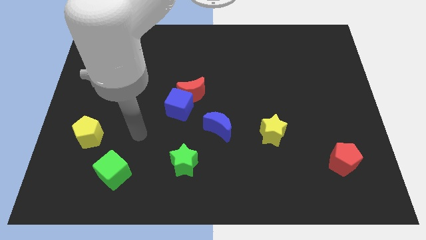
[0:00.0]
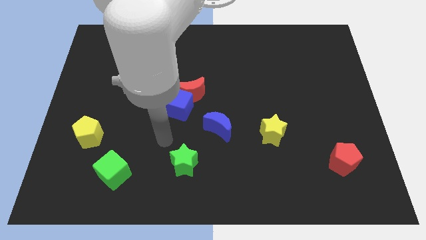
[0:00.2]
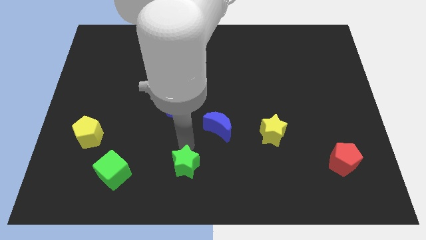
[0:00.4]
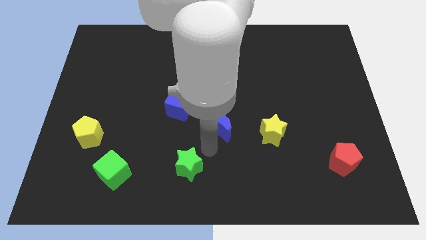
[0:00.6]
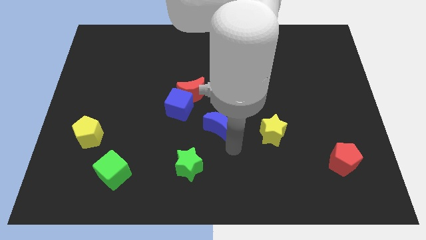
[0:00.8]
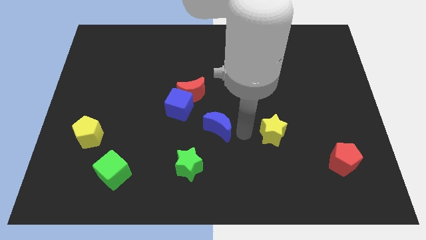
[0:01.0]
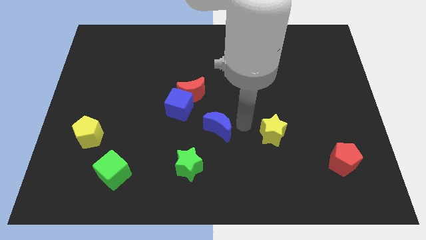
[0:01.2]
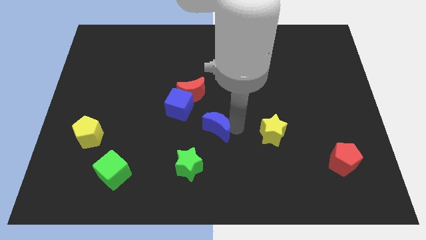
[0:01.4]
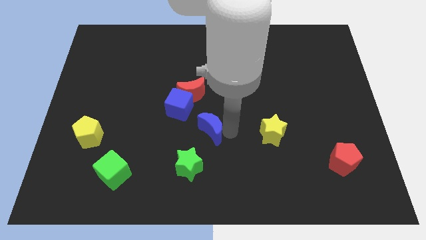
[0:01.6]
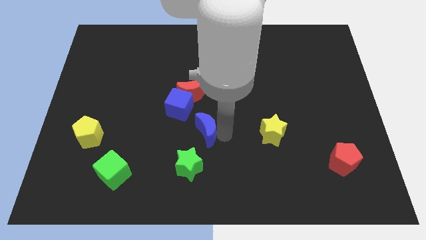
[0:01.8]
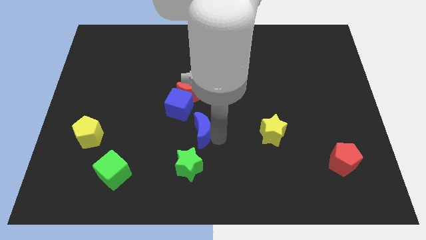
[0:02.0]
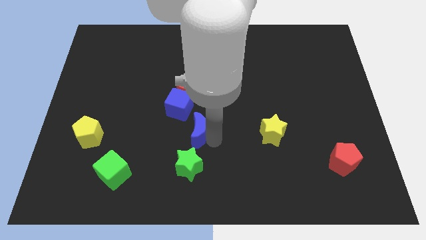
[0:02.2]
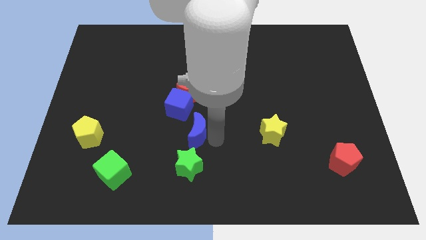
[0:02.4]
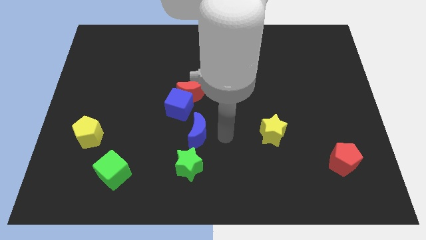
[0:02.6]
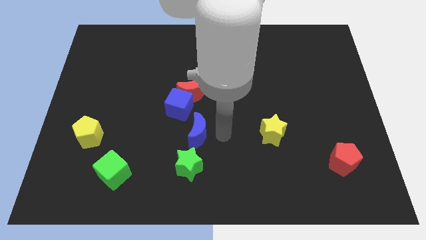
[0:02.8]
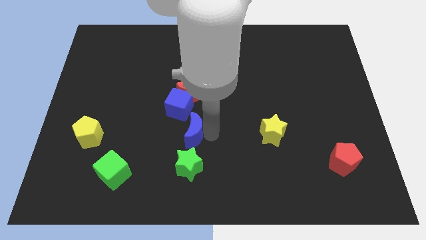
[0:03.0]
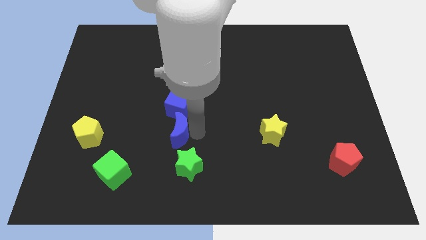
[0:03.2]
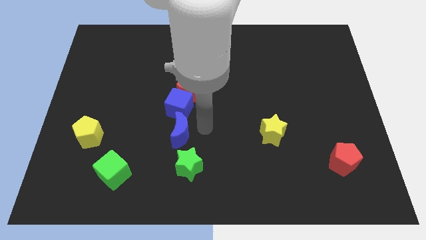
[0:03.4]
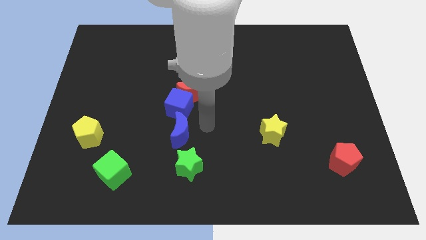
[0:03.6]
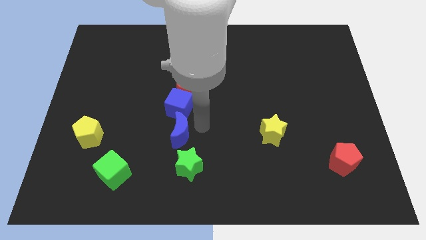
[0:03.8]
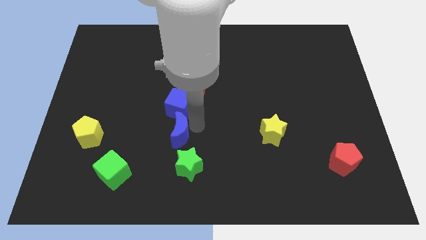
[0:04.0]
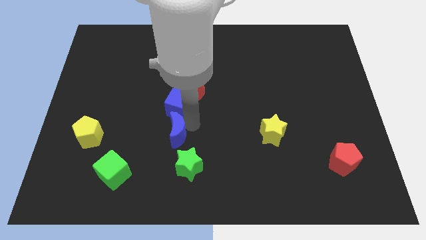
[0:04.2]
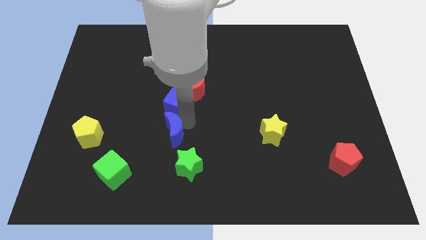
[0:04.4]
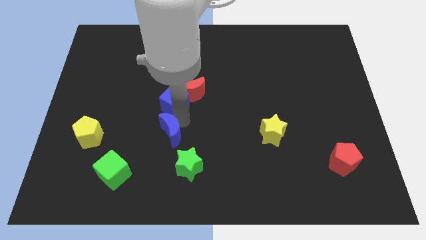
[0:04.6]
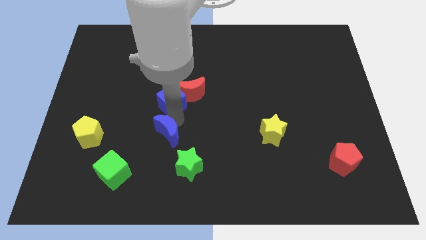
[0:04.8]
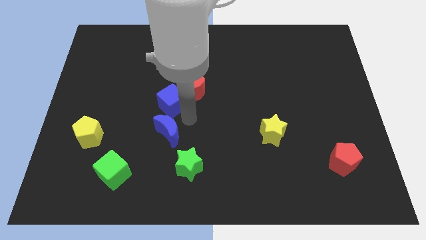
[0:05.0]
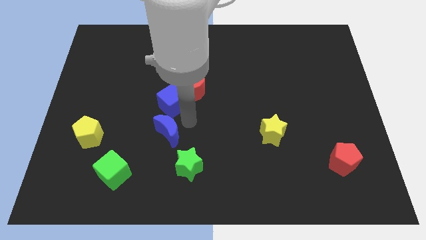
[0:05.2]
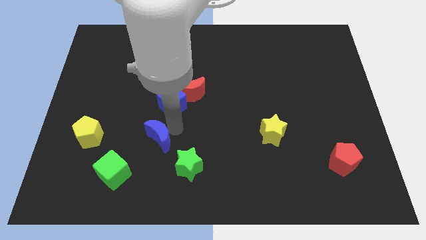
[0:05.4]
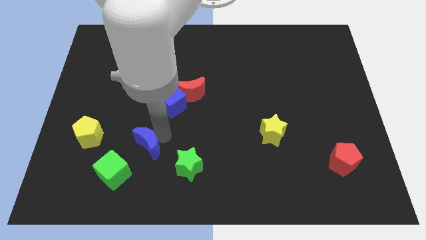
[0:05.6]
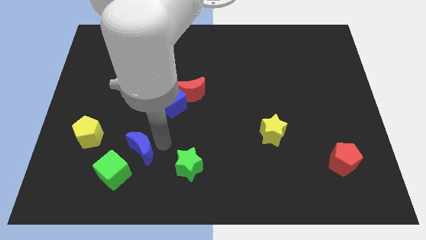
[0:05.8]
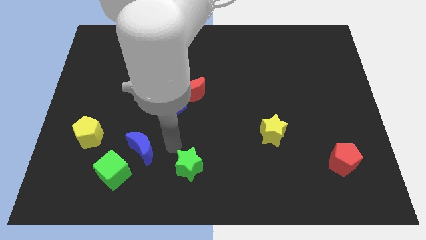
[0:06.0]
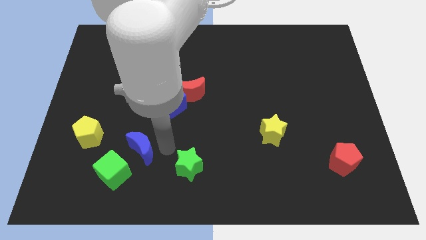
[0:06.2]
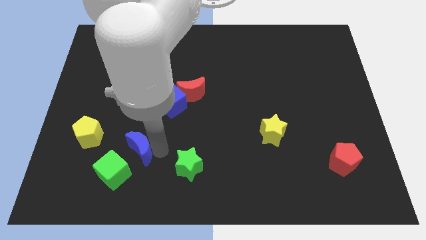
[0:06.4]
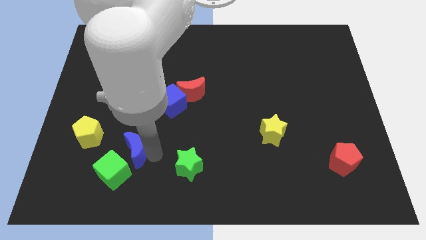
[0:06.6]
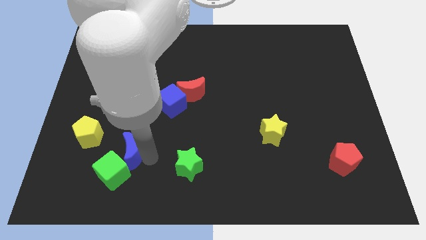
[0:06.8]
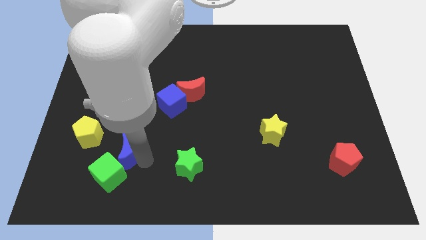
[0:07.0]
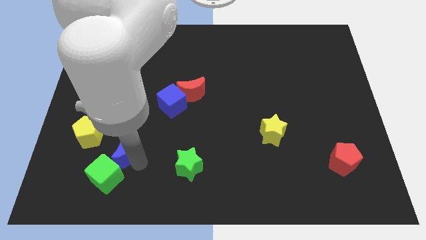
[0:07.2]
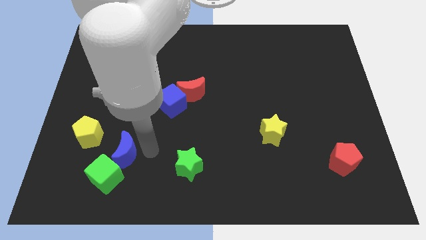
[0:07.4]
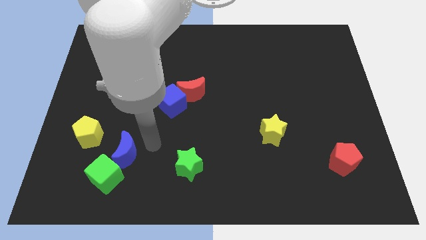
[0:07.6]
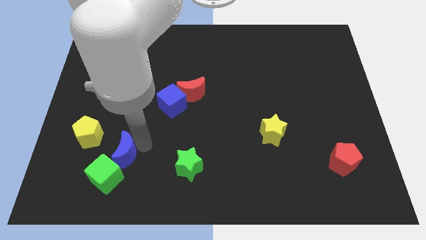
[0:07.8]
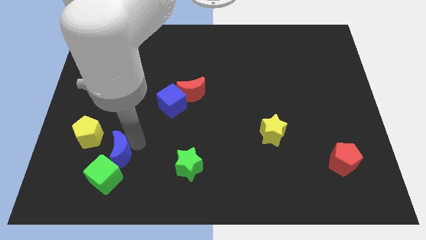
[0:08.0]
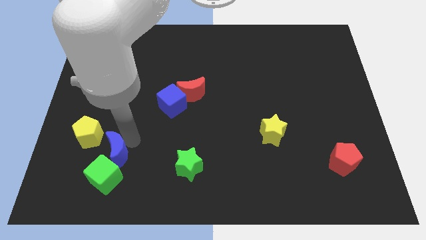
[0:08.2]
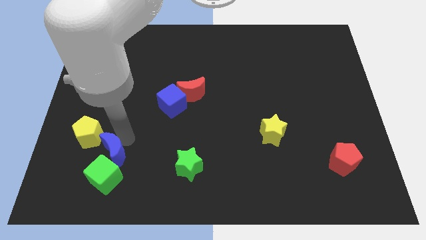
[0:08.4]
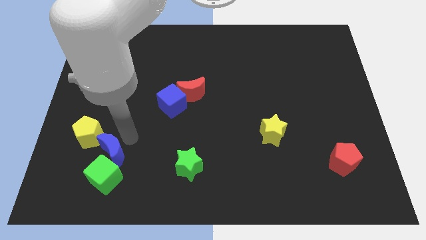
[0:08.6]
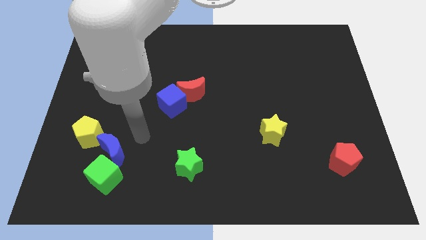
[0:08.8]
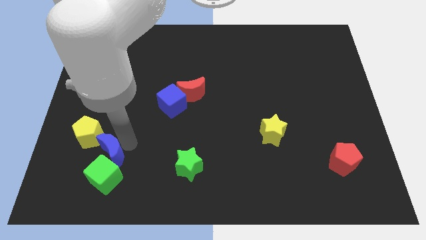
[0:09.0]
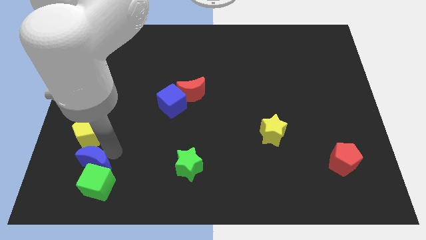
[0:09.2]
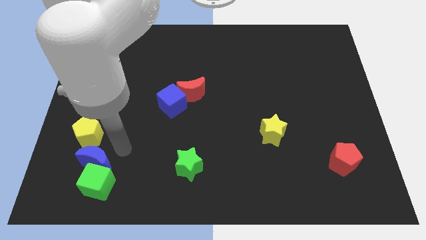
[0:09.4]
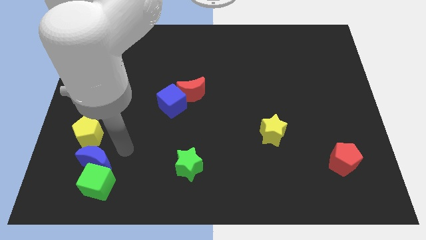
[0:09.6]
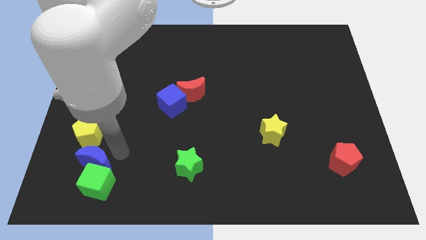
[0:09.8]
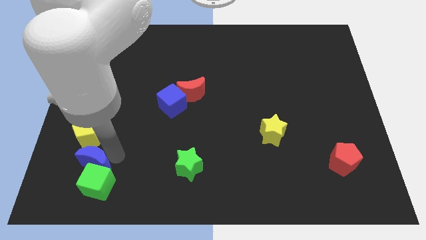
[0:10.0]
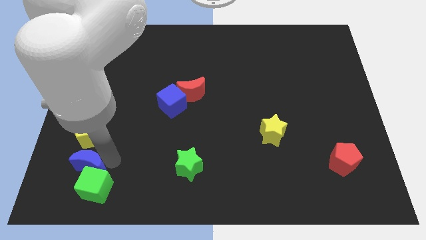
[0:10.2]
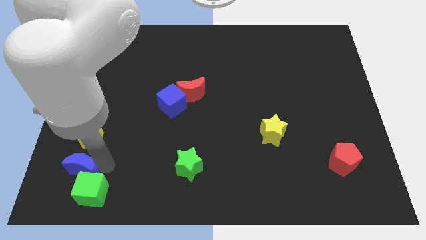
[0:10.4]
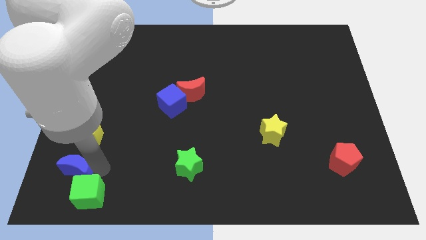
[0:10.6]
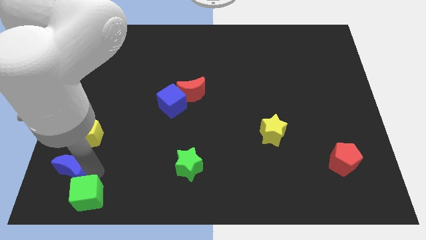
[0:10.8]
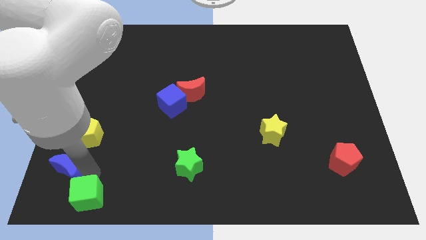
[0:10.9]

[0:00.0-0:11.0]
move the blue moon to the bottom left of the board
